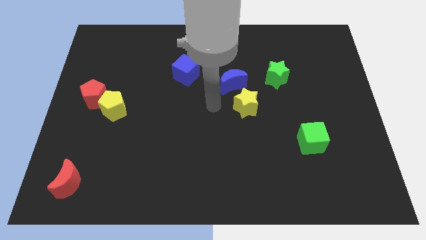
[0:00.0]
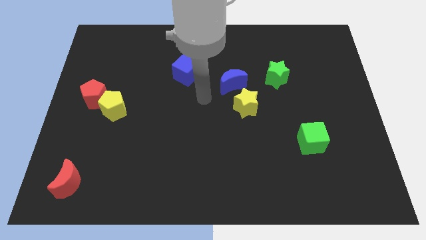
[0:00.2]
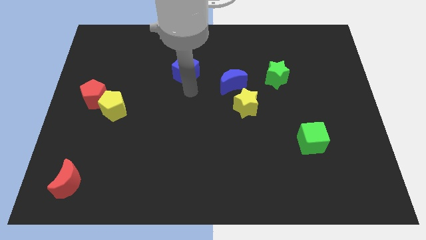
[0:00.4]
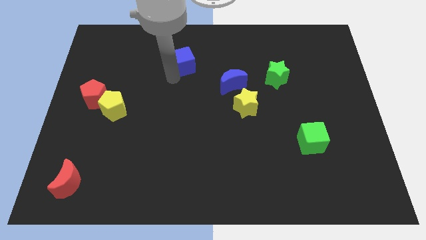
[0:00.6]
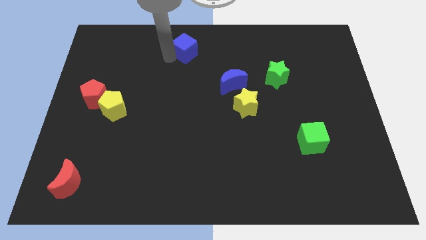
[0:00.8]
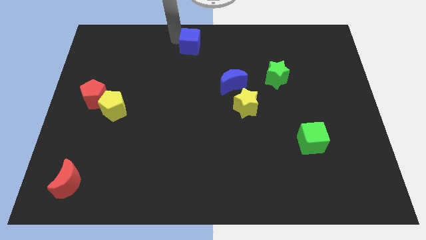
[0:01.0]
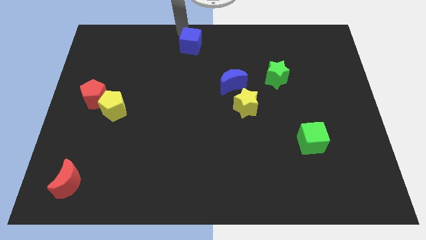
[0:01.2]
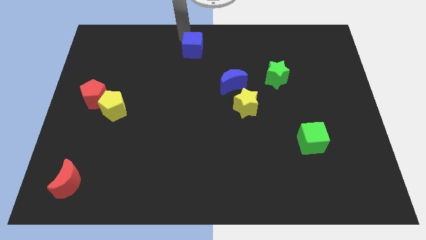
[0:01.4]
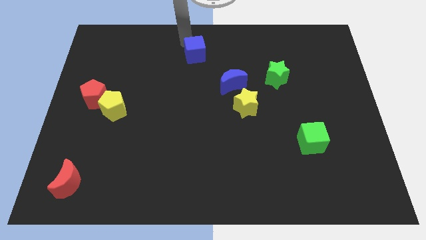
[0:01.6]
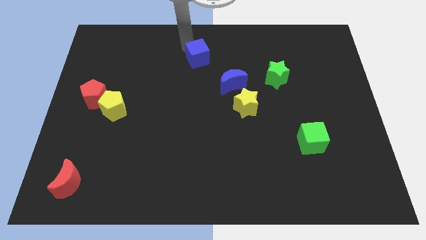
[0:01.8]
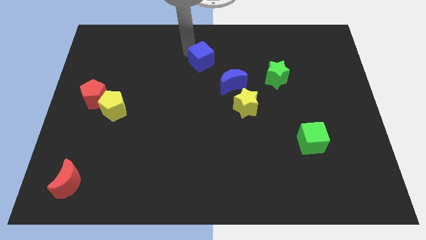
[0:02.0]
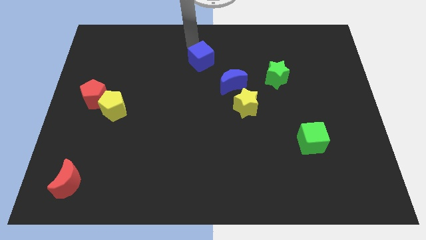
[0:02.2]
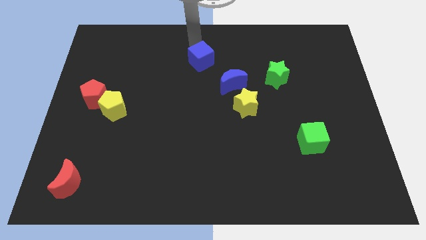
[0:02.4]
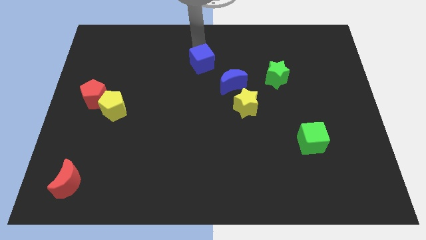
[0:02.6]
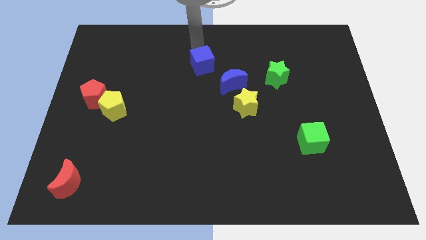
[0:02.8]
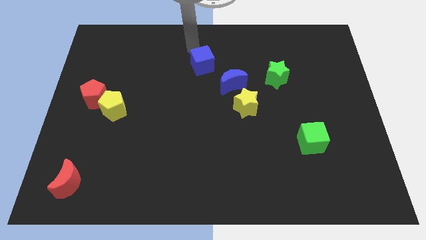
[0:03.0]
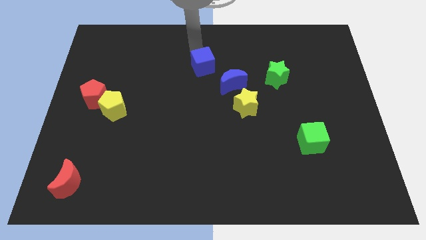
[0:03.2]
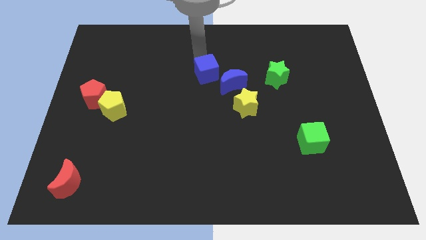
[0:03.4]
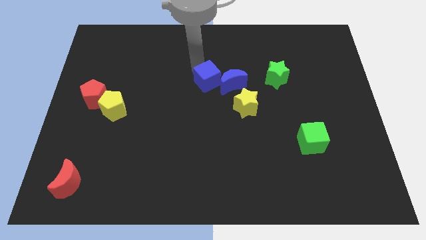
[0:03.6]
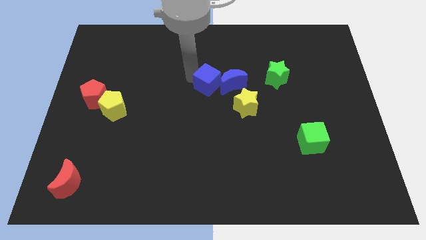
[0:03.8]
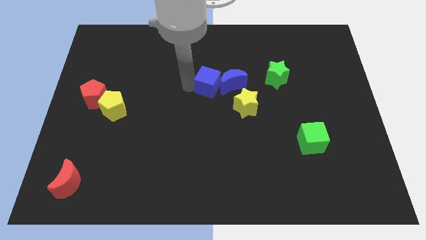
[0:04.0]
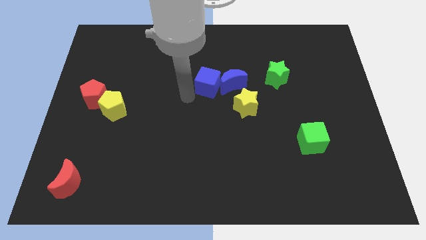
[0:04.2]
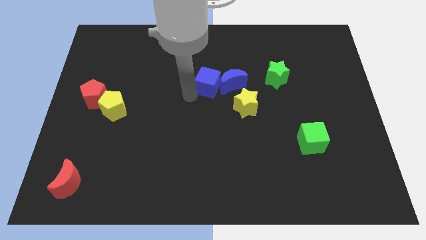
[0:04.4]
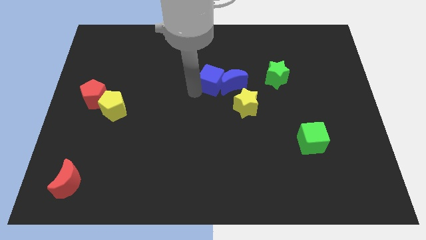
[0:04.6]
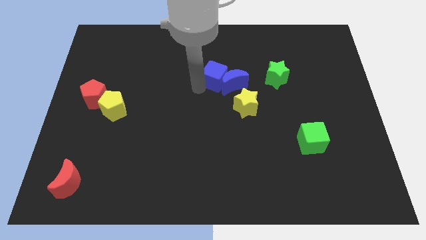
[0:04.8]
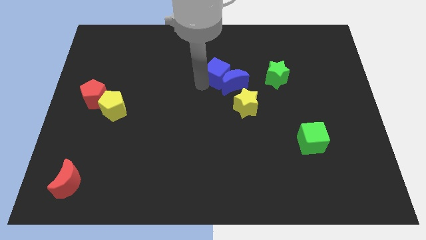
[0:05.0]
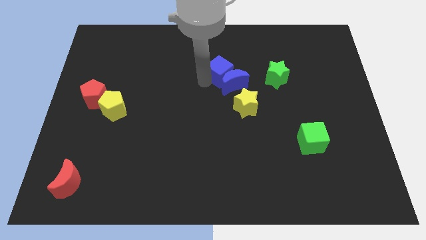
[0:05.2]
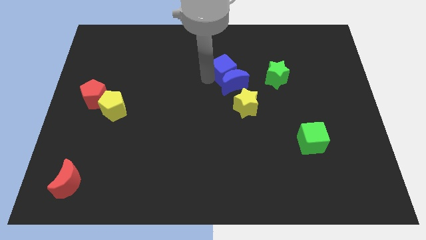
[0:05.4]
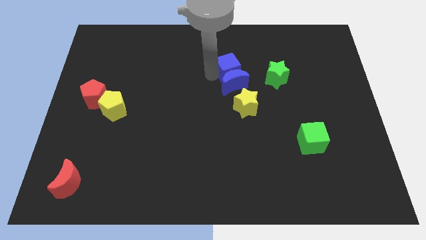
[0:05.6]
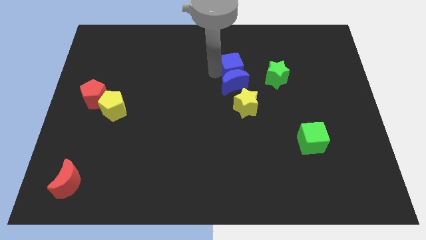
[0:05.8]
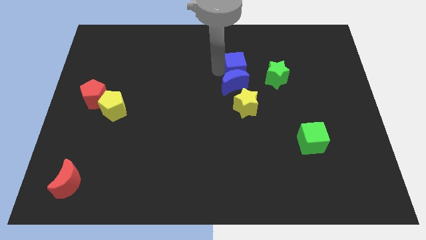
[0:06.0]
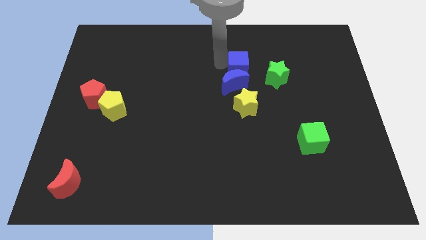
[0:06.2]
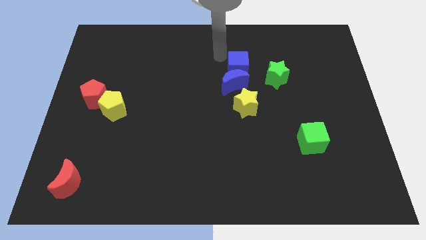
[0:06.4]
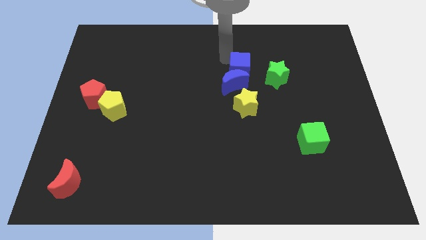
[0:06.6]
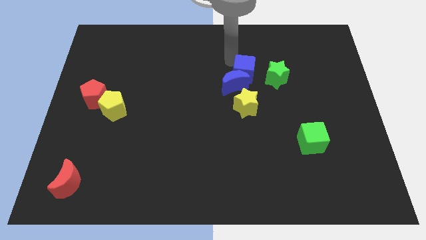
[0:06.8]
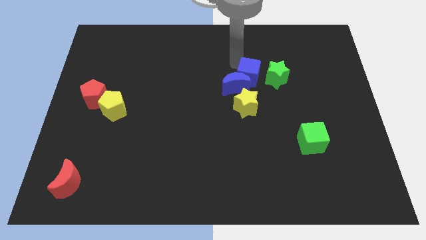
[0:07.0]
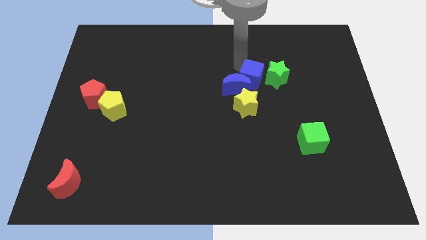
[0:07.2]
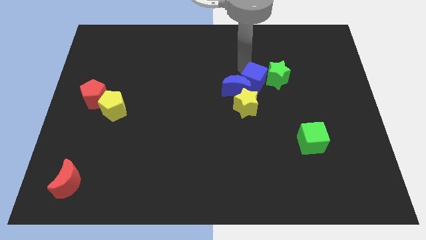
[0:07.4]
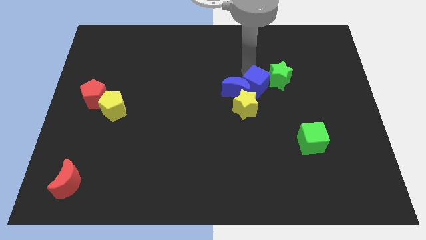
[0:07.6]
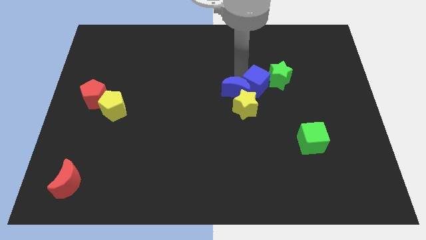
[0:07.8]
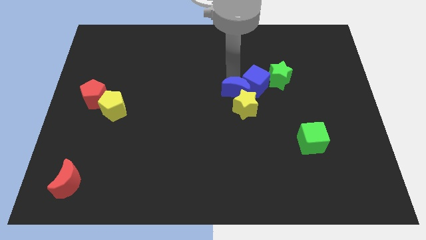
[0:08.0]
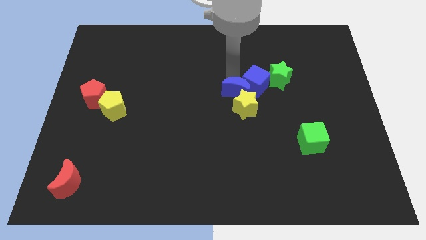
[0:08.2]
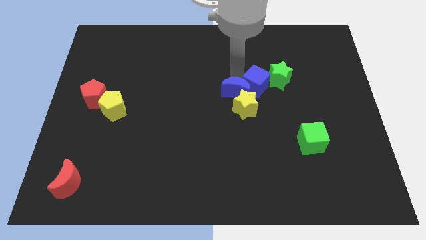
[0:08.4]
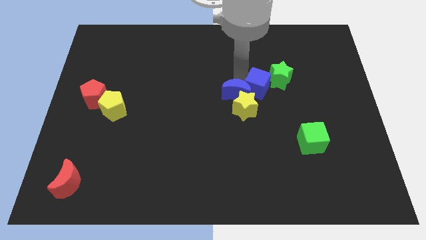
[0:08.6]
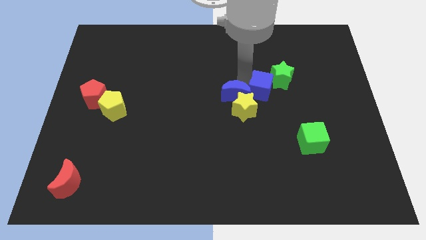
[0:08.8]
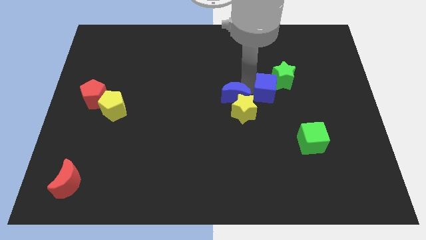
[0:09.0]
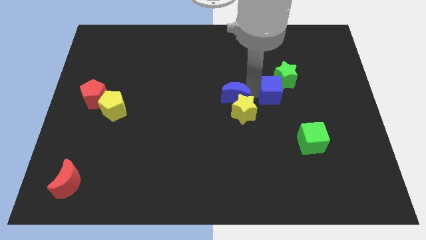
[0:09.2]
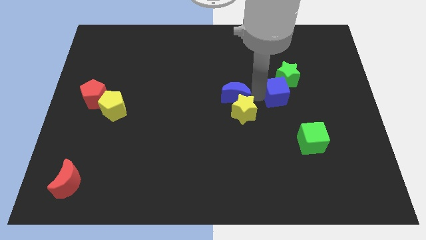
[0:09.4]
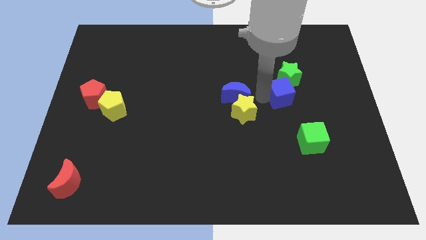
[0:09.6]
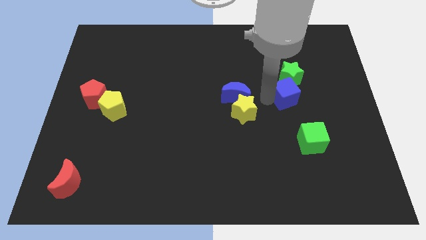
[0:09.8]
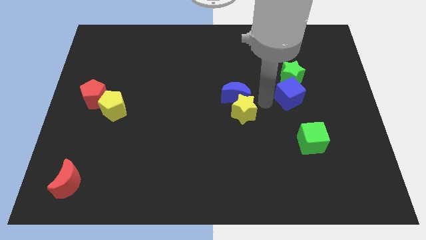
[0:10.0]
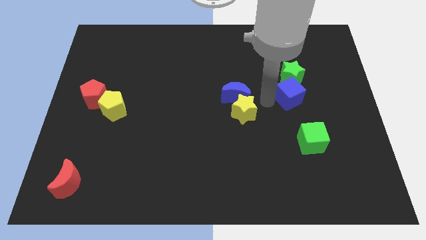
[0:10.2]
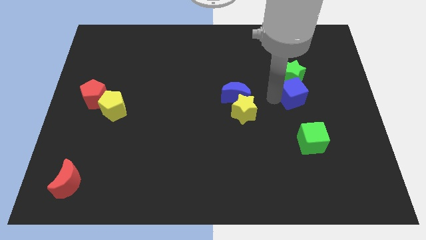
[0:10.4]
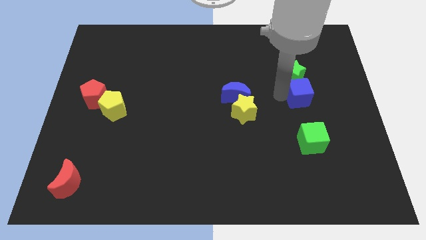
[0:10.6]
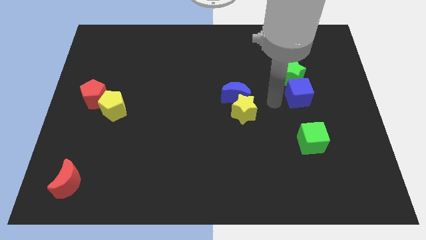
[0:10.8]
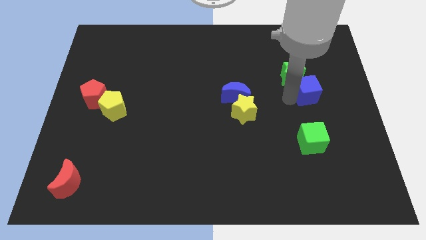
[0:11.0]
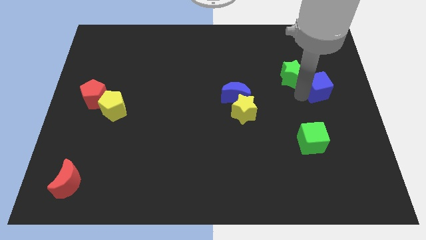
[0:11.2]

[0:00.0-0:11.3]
push the blue cube to the center right
